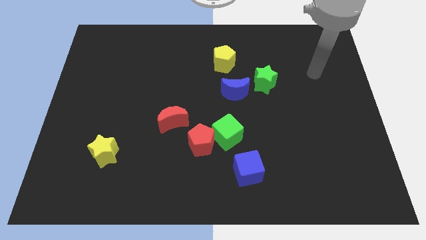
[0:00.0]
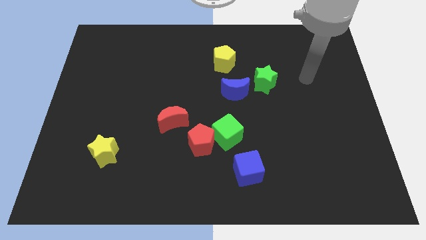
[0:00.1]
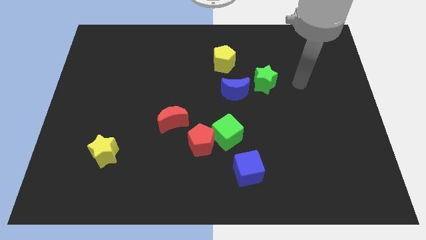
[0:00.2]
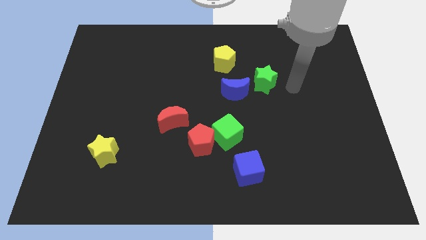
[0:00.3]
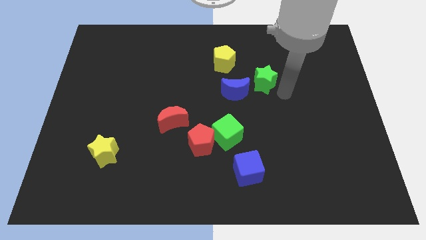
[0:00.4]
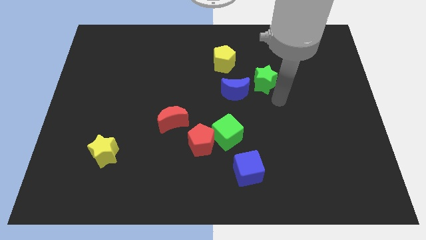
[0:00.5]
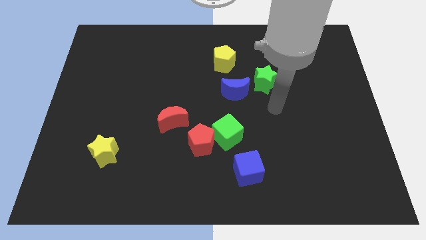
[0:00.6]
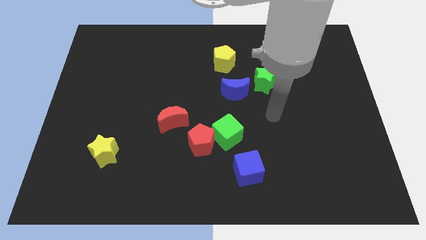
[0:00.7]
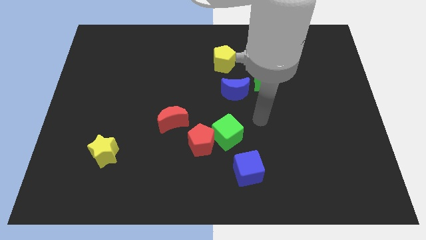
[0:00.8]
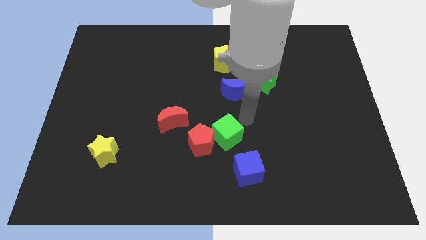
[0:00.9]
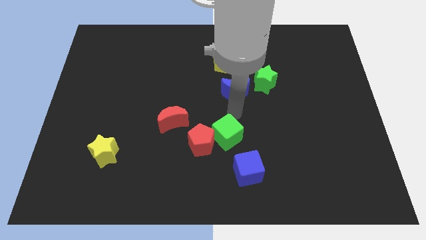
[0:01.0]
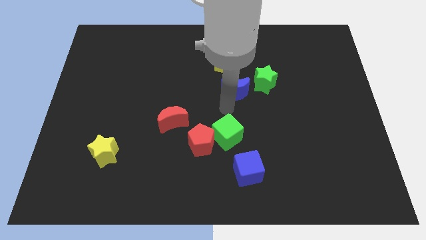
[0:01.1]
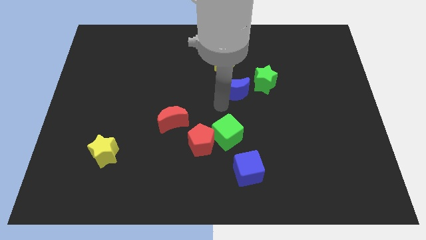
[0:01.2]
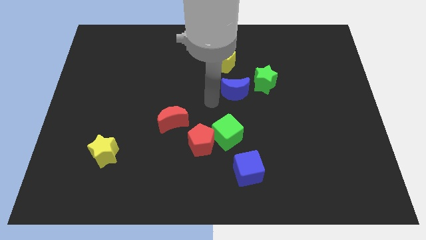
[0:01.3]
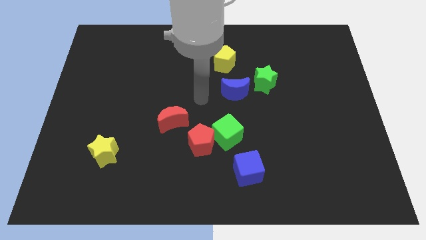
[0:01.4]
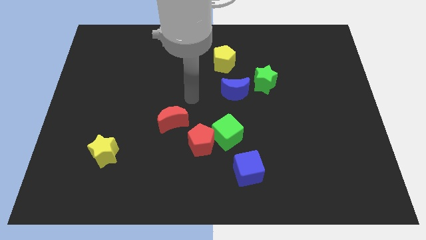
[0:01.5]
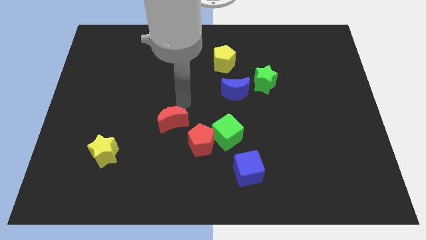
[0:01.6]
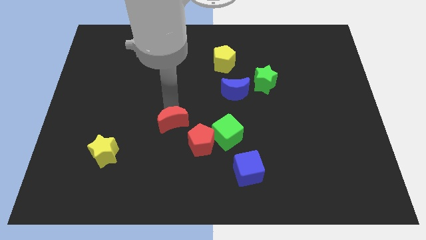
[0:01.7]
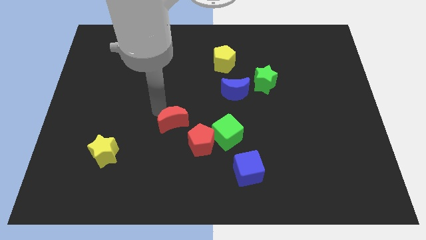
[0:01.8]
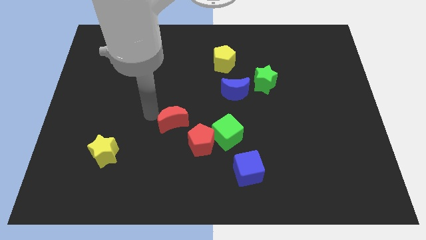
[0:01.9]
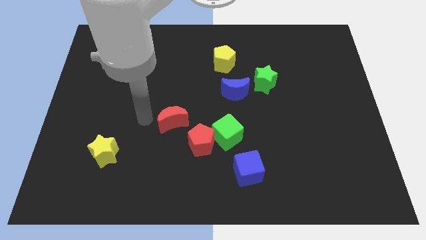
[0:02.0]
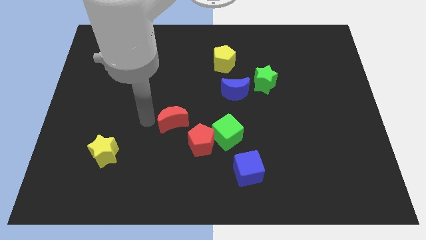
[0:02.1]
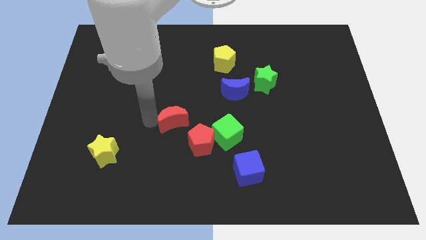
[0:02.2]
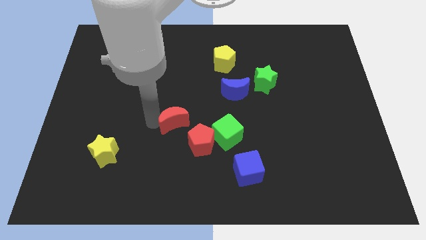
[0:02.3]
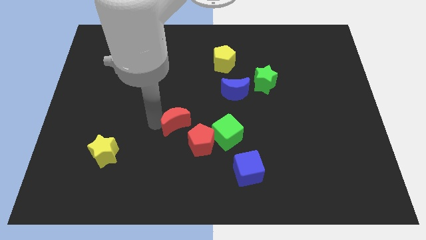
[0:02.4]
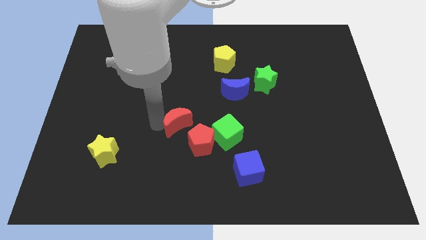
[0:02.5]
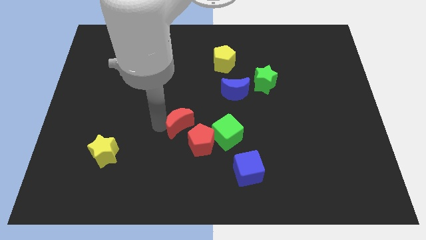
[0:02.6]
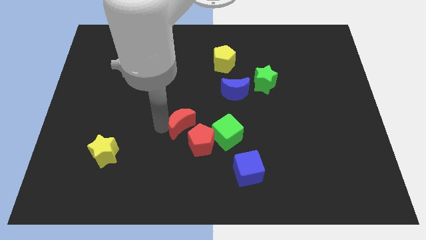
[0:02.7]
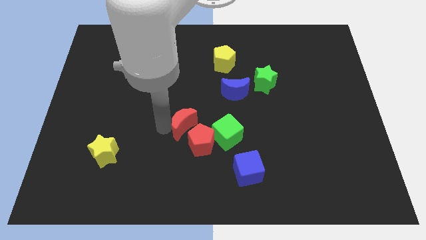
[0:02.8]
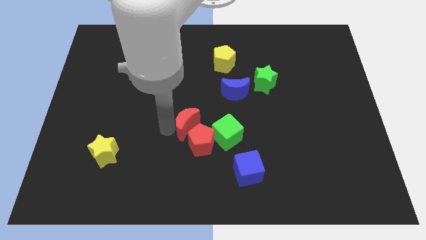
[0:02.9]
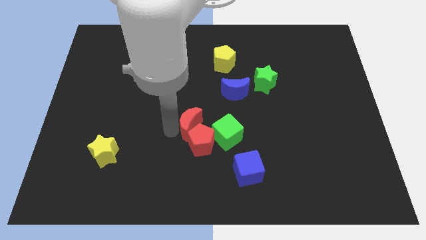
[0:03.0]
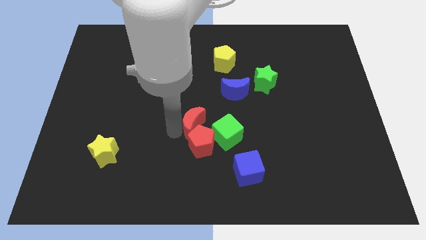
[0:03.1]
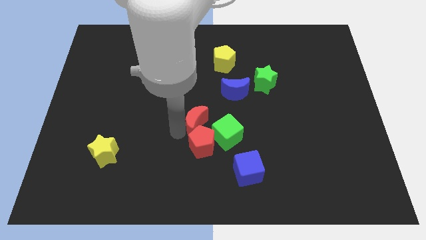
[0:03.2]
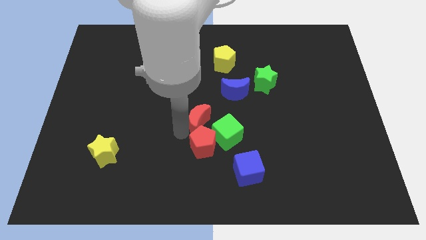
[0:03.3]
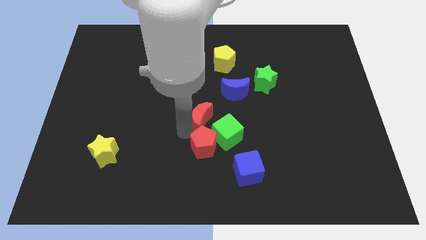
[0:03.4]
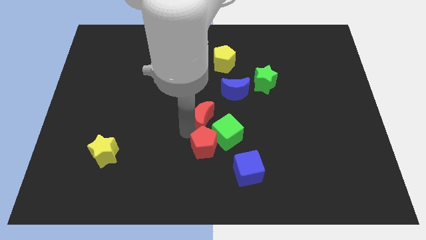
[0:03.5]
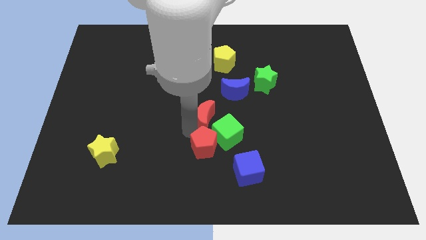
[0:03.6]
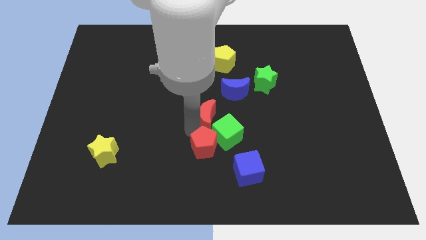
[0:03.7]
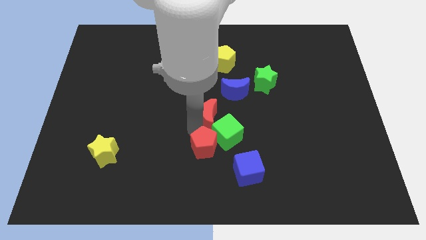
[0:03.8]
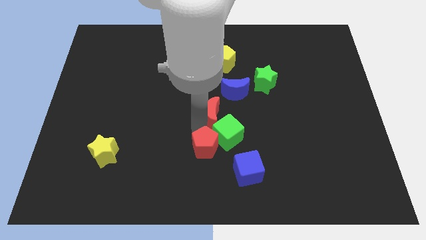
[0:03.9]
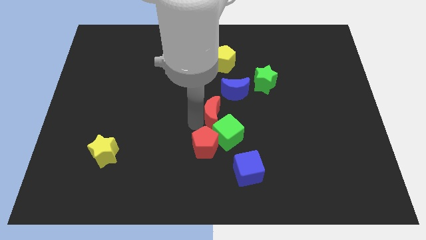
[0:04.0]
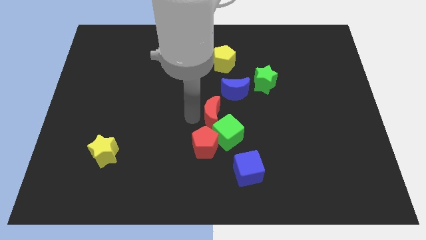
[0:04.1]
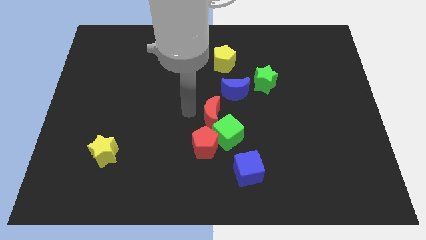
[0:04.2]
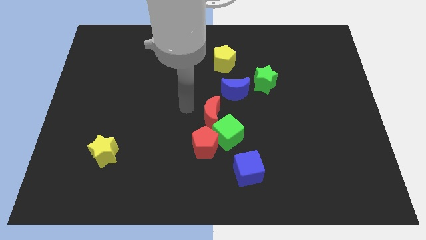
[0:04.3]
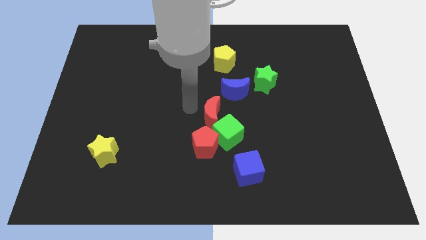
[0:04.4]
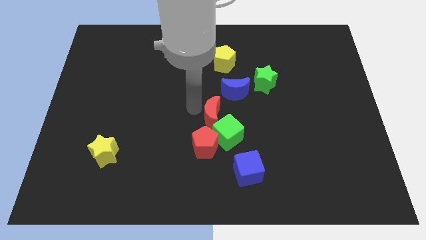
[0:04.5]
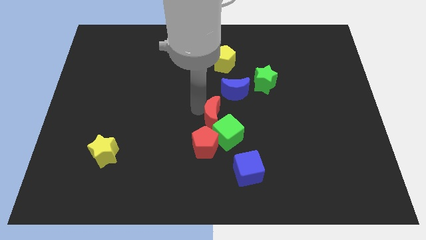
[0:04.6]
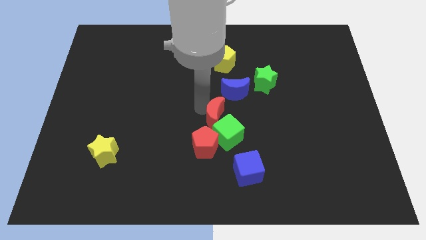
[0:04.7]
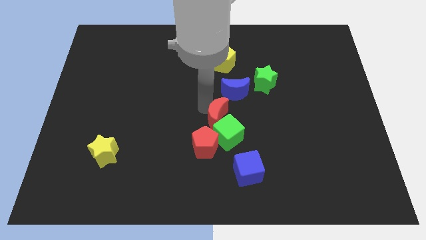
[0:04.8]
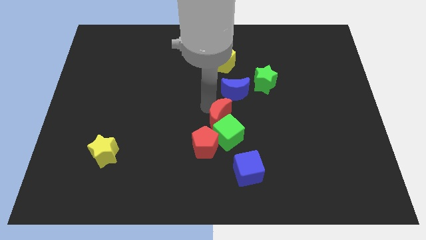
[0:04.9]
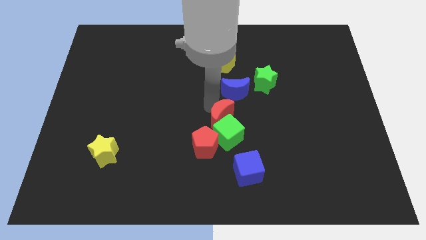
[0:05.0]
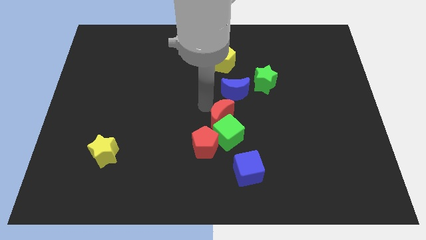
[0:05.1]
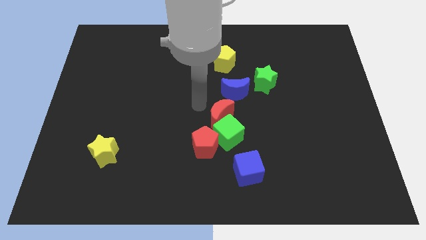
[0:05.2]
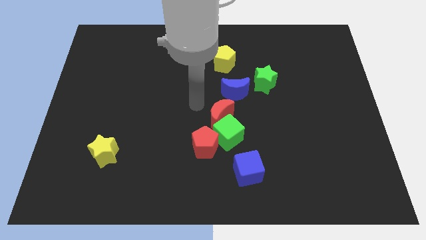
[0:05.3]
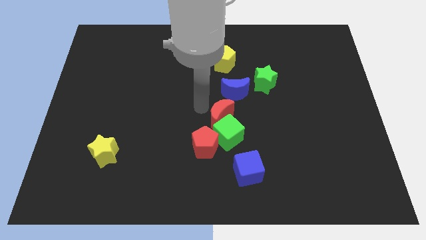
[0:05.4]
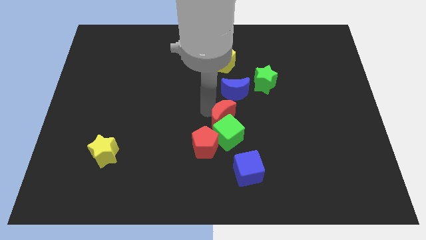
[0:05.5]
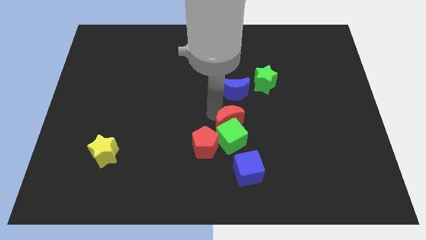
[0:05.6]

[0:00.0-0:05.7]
push the red moon to the top side of the blue cube

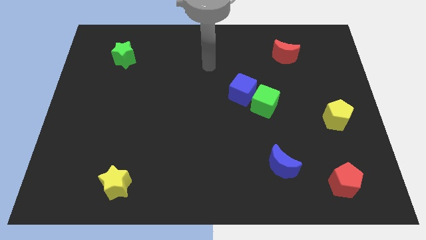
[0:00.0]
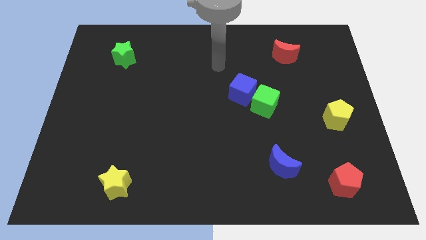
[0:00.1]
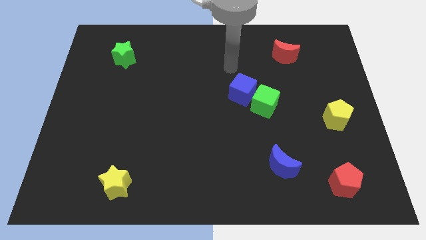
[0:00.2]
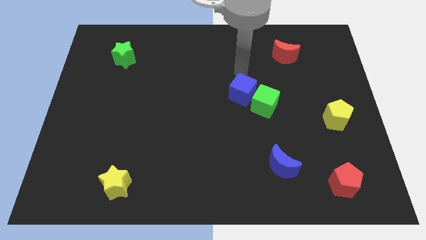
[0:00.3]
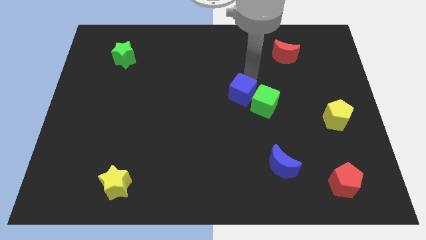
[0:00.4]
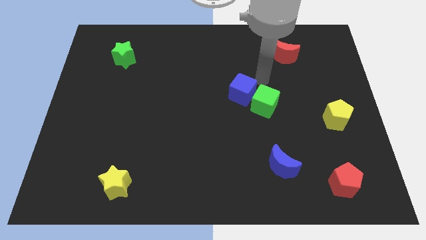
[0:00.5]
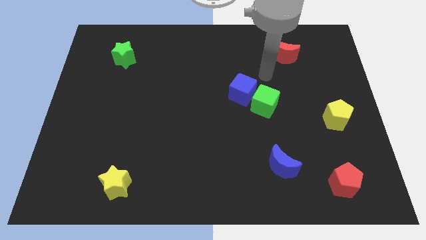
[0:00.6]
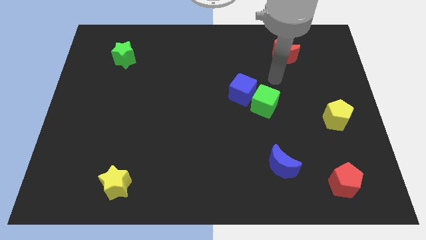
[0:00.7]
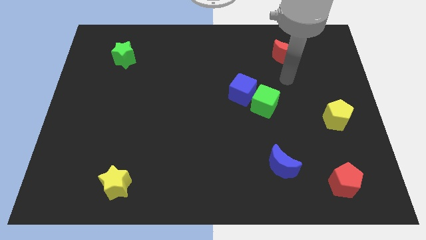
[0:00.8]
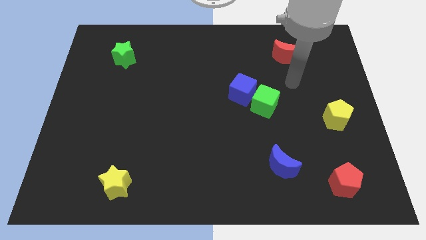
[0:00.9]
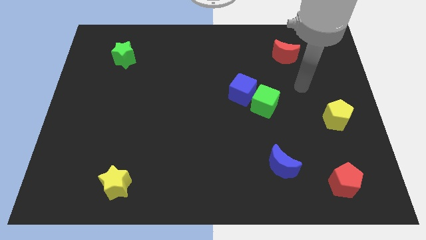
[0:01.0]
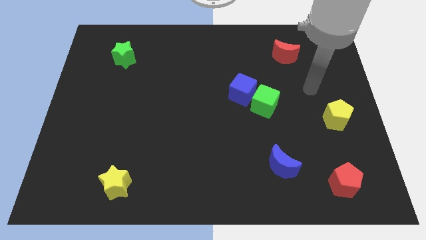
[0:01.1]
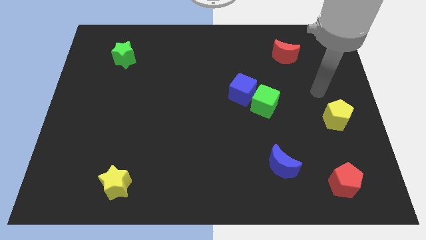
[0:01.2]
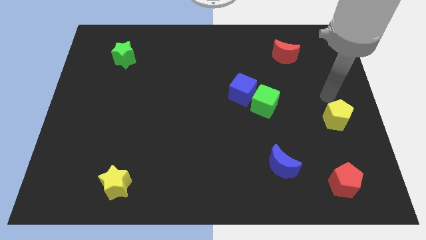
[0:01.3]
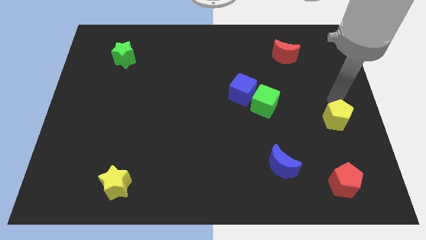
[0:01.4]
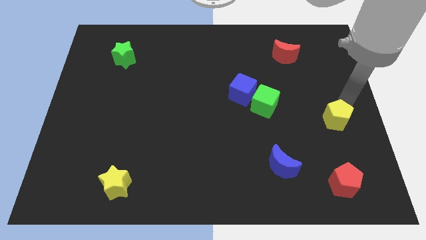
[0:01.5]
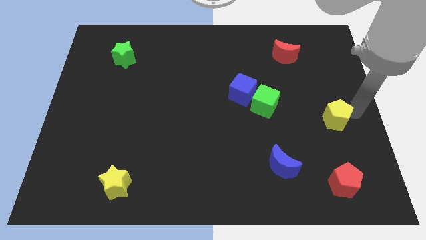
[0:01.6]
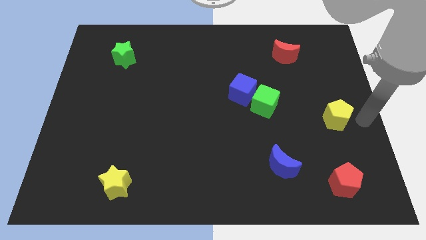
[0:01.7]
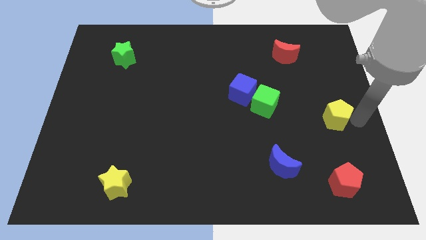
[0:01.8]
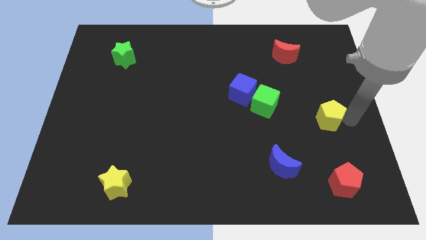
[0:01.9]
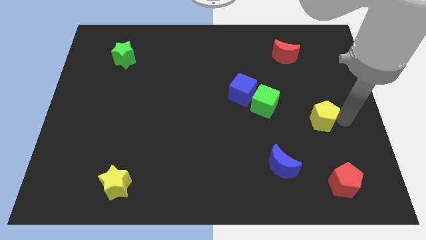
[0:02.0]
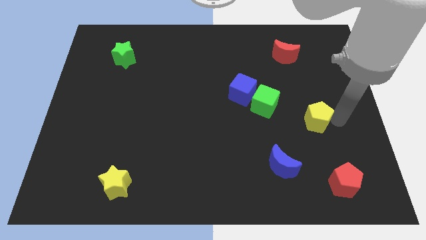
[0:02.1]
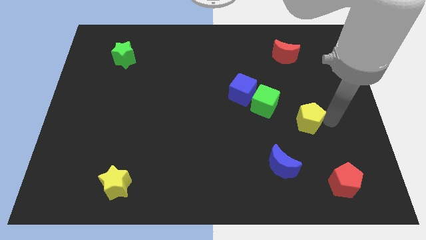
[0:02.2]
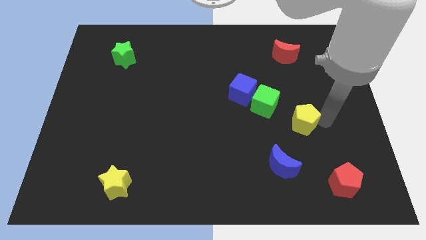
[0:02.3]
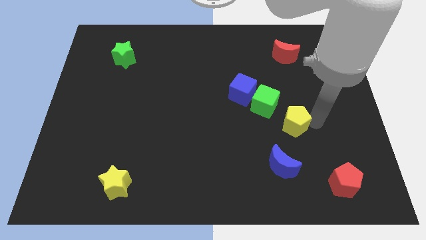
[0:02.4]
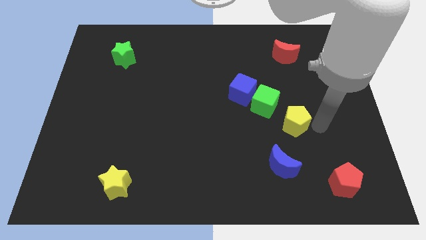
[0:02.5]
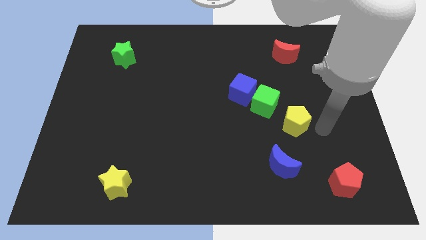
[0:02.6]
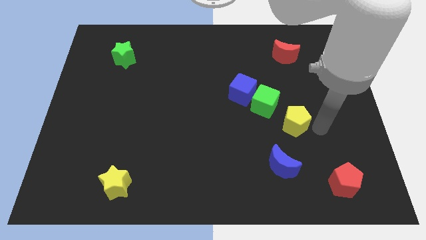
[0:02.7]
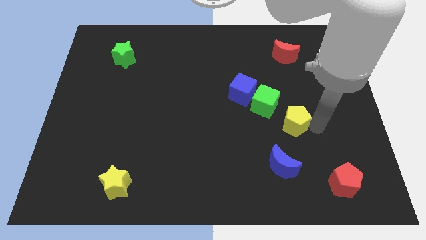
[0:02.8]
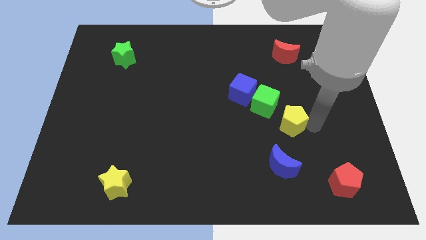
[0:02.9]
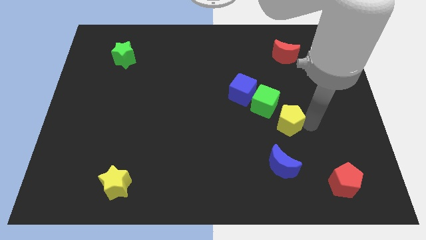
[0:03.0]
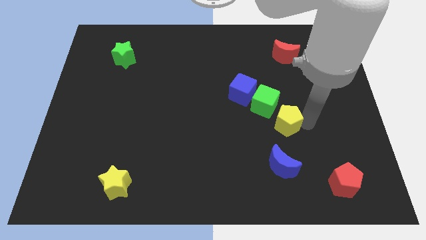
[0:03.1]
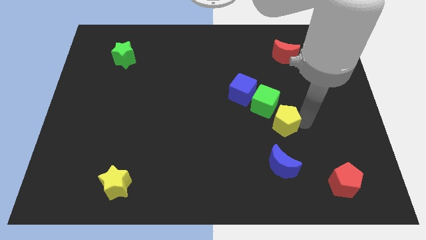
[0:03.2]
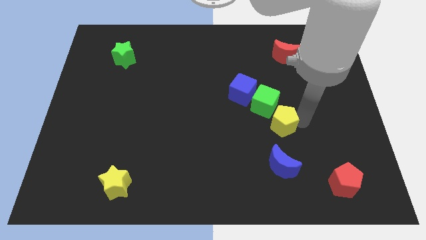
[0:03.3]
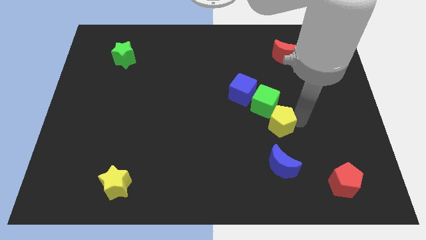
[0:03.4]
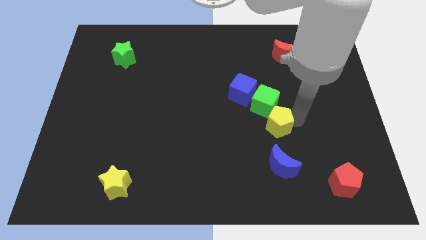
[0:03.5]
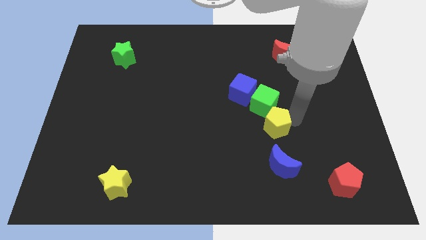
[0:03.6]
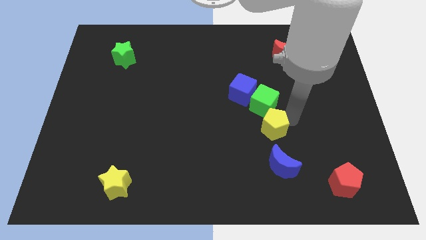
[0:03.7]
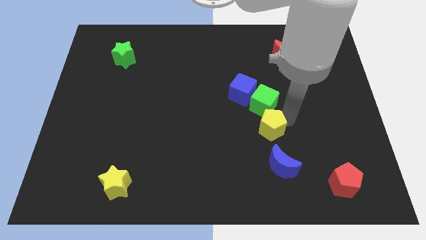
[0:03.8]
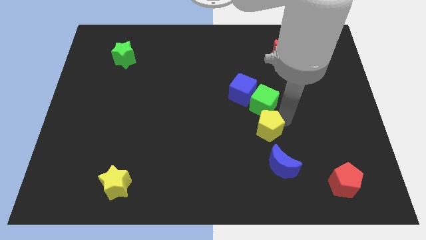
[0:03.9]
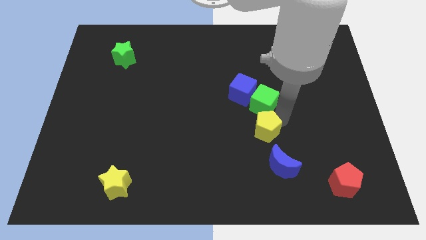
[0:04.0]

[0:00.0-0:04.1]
push the yellow pentagon diagonally down and to the left of the green cube
